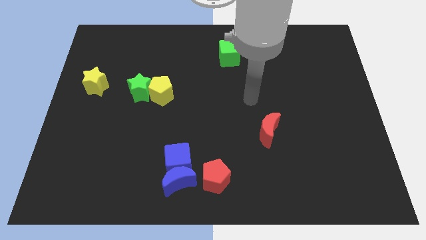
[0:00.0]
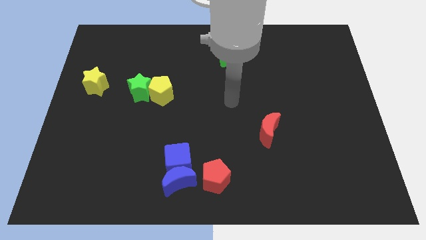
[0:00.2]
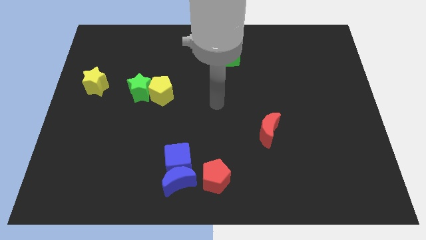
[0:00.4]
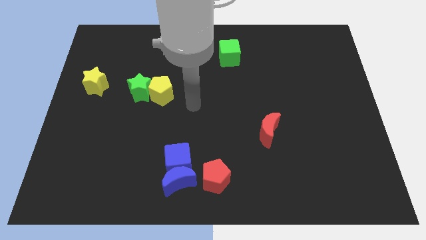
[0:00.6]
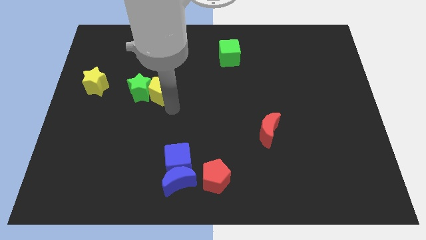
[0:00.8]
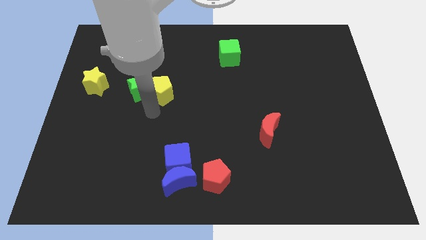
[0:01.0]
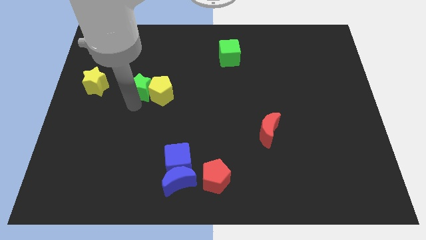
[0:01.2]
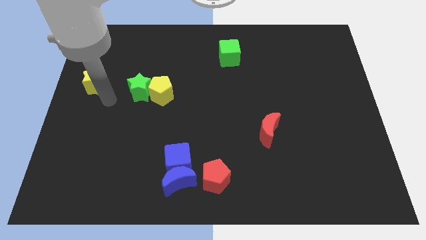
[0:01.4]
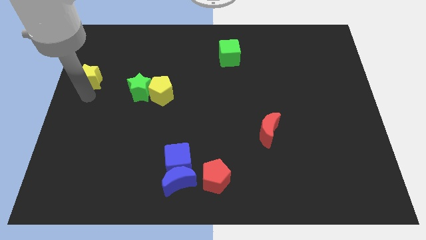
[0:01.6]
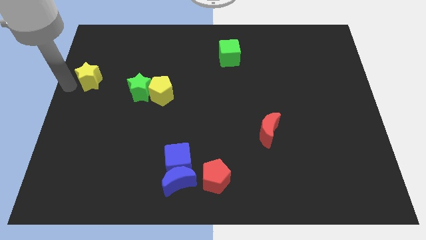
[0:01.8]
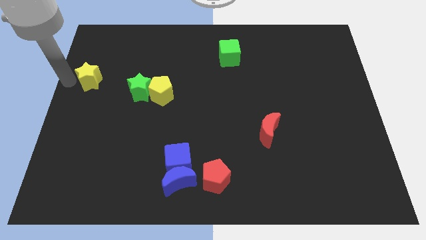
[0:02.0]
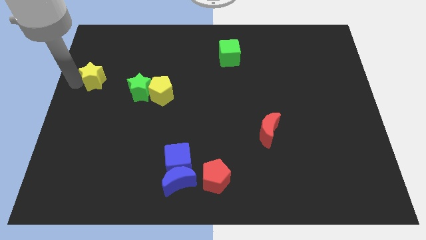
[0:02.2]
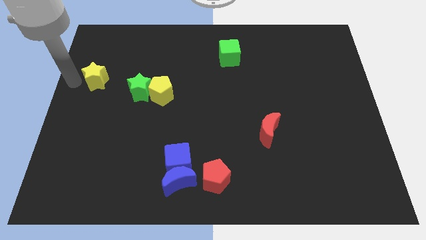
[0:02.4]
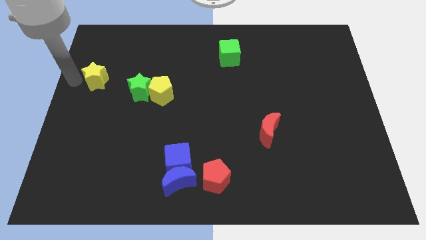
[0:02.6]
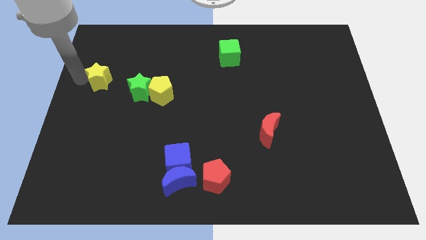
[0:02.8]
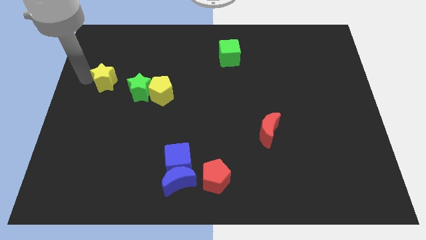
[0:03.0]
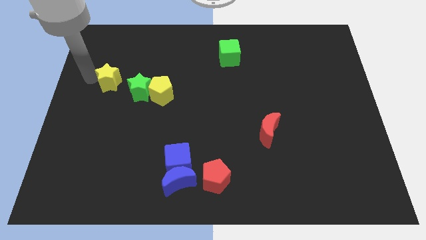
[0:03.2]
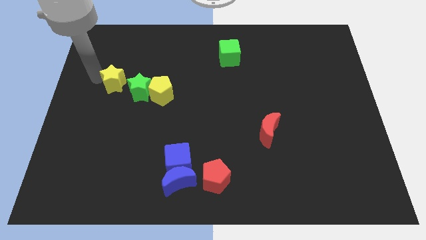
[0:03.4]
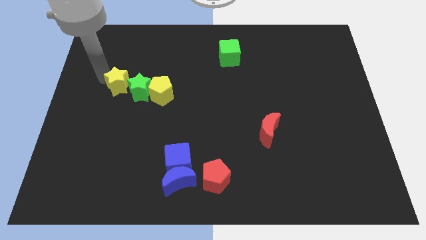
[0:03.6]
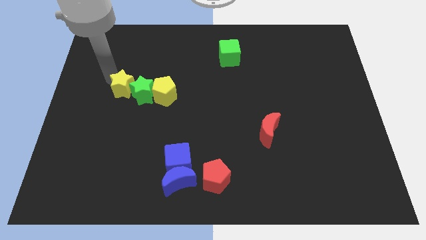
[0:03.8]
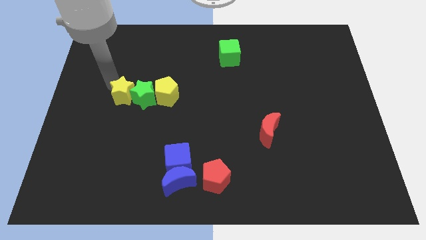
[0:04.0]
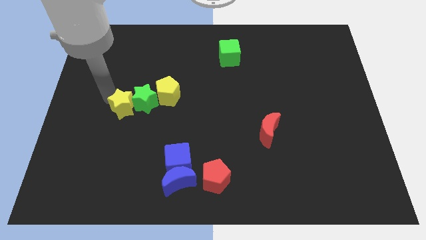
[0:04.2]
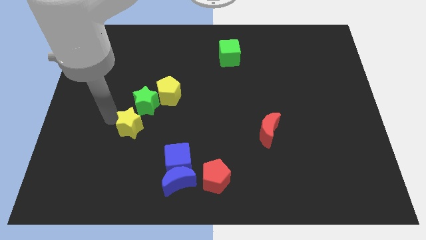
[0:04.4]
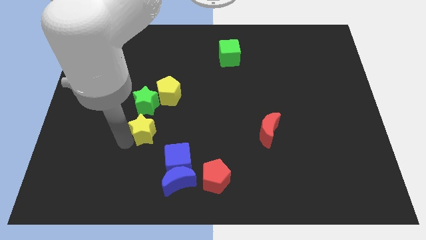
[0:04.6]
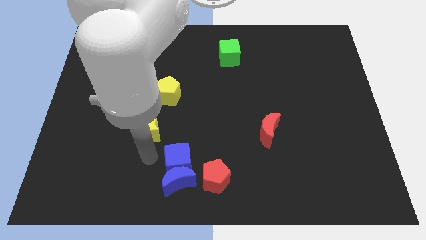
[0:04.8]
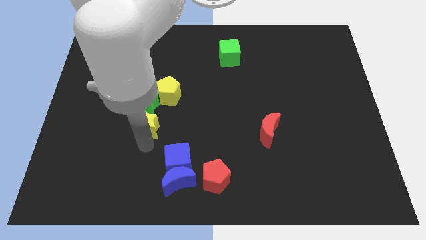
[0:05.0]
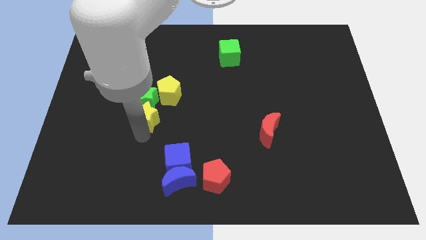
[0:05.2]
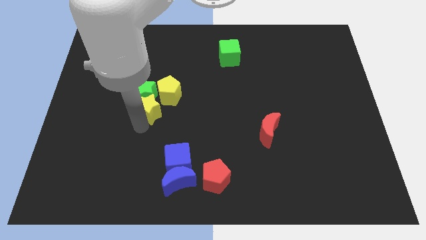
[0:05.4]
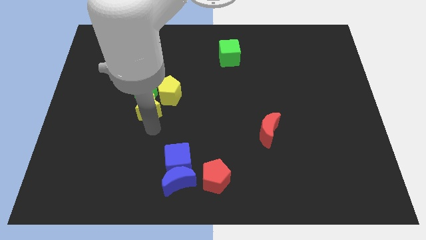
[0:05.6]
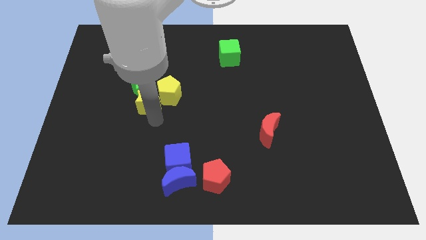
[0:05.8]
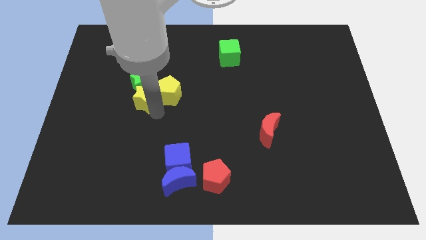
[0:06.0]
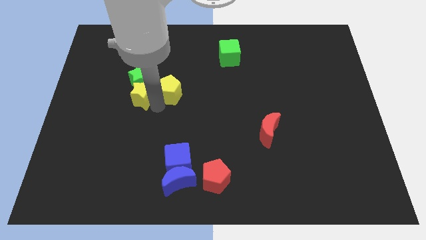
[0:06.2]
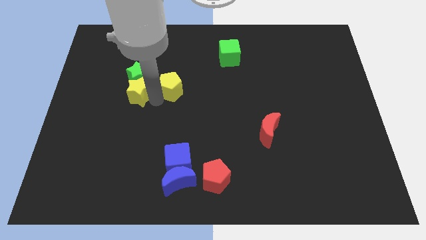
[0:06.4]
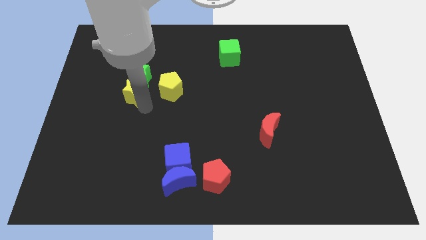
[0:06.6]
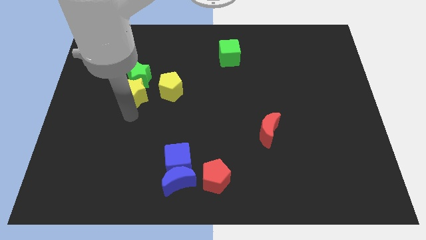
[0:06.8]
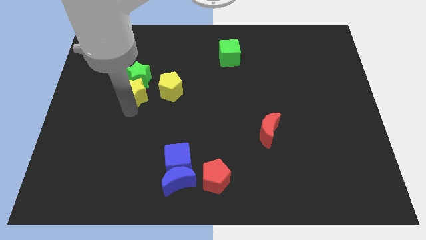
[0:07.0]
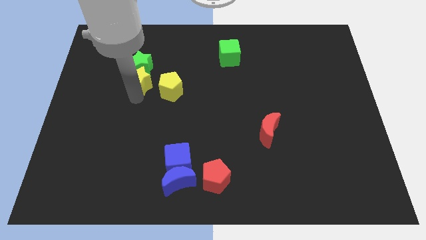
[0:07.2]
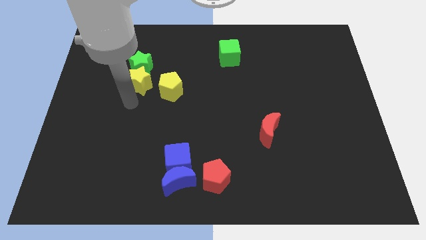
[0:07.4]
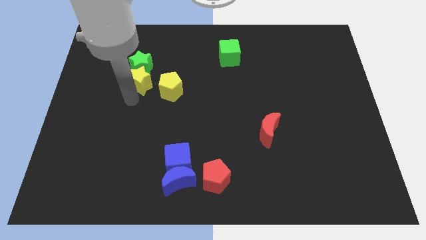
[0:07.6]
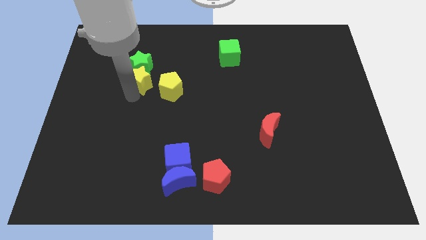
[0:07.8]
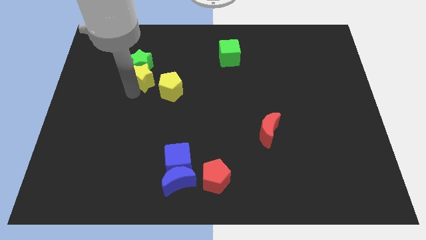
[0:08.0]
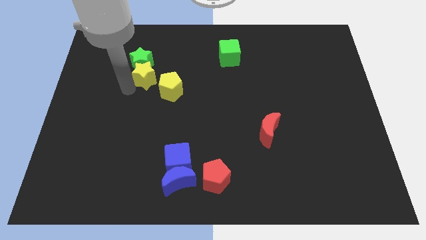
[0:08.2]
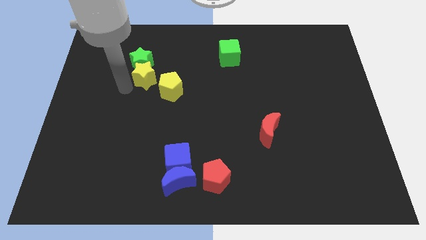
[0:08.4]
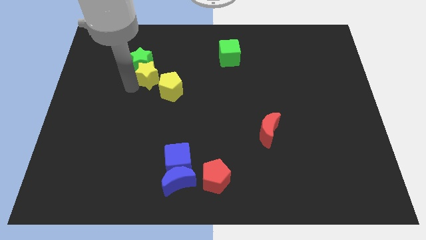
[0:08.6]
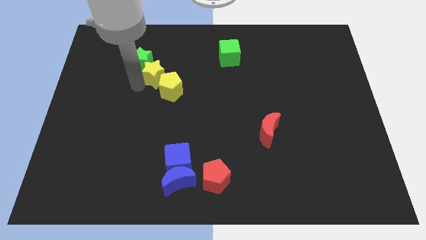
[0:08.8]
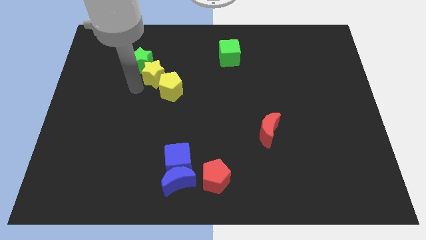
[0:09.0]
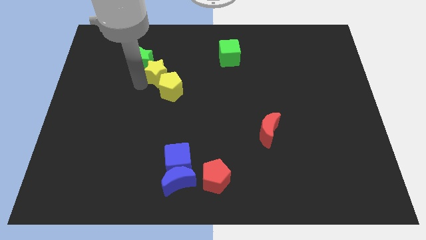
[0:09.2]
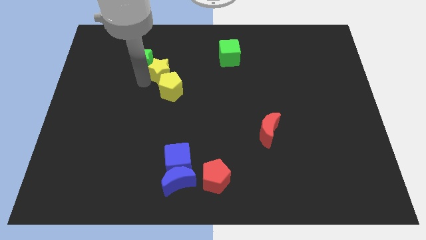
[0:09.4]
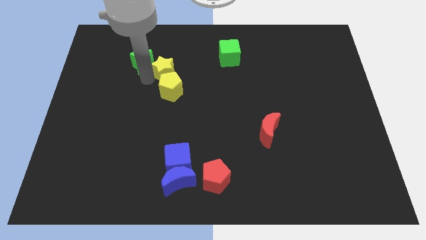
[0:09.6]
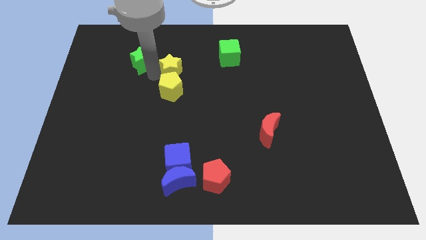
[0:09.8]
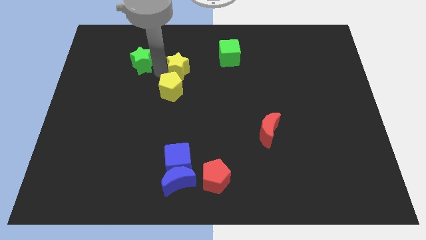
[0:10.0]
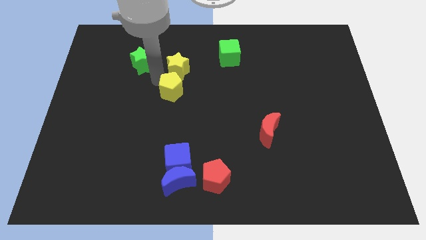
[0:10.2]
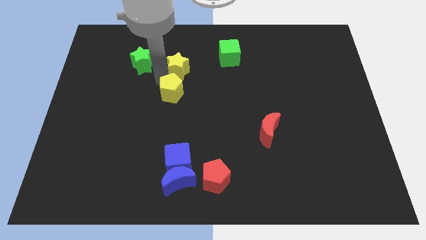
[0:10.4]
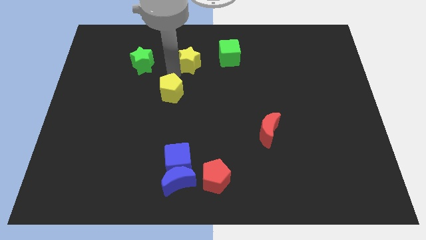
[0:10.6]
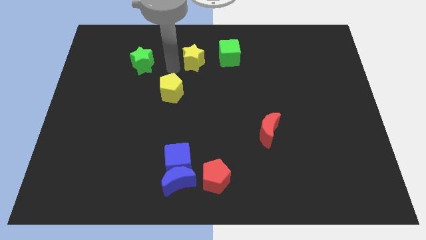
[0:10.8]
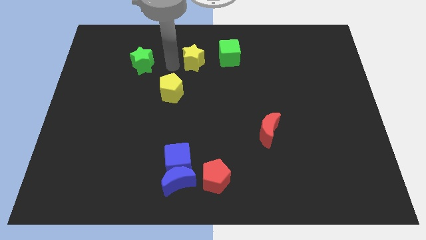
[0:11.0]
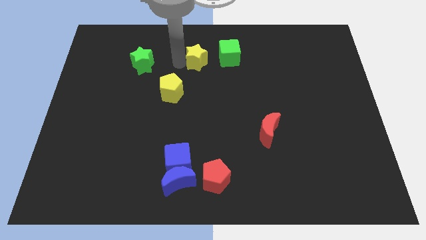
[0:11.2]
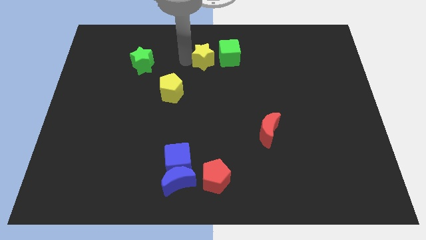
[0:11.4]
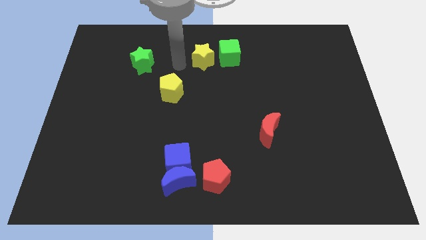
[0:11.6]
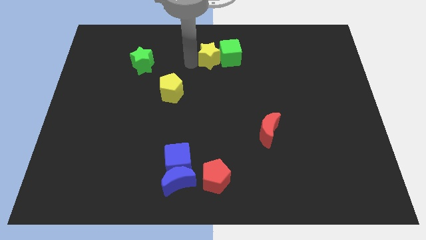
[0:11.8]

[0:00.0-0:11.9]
slide the yellow star close to the green cube

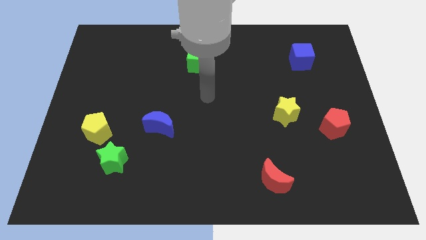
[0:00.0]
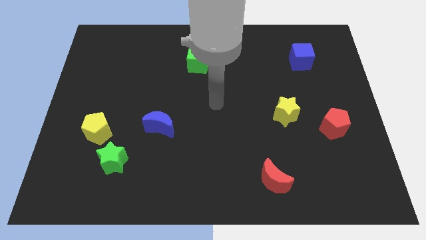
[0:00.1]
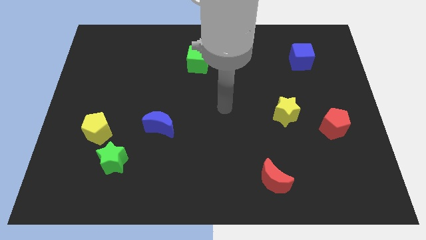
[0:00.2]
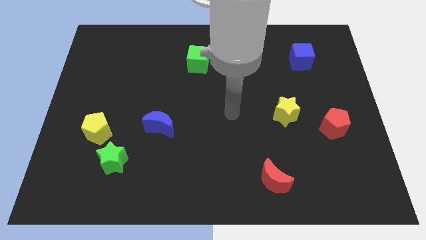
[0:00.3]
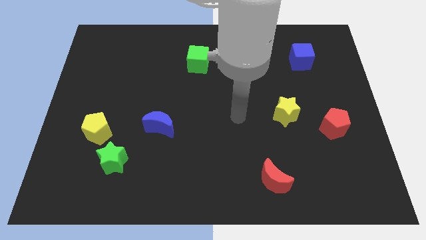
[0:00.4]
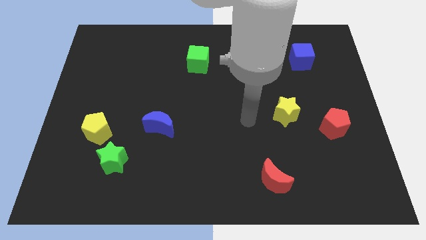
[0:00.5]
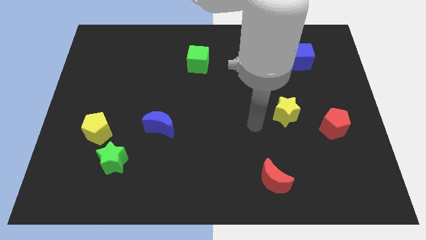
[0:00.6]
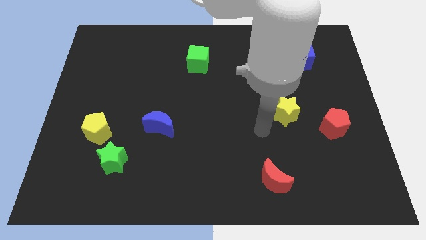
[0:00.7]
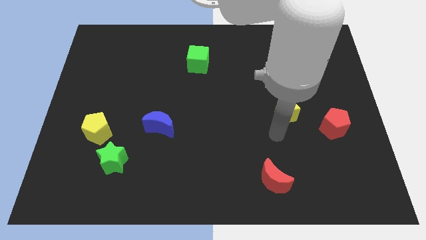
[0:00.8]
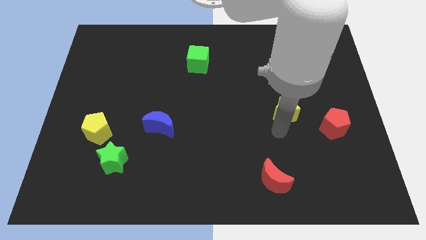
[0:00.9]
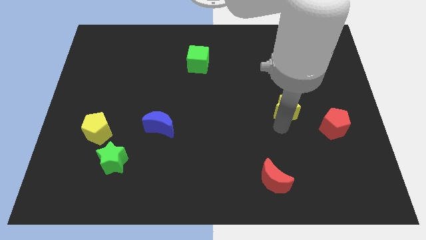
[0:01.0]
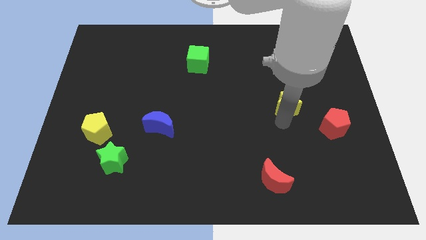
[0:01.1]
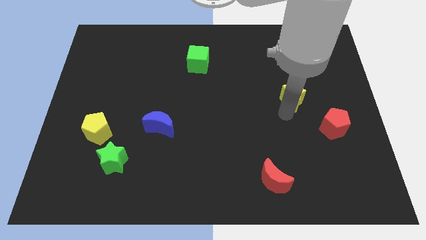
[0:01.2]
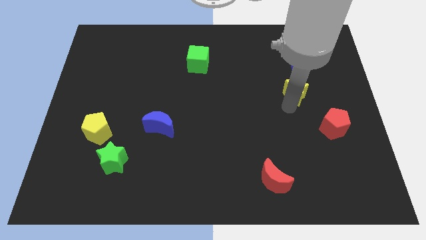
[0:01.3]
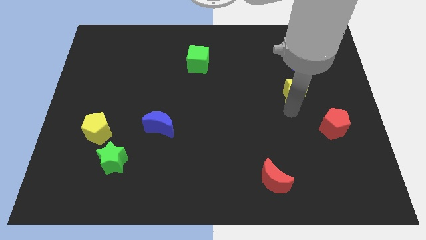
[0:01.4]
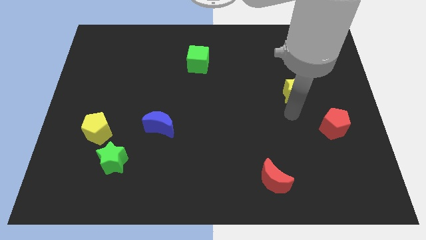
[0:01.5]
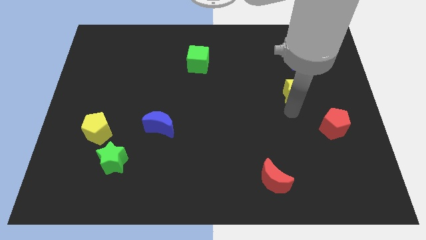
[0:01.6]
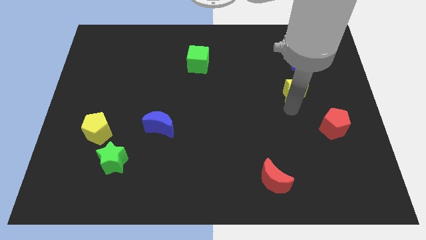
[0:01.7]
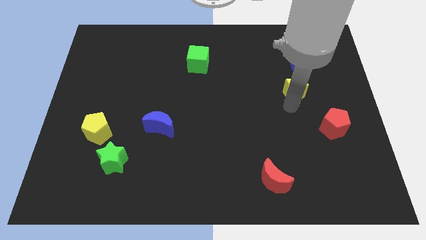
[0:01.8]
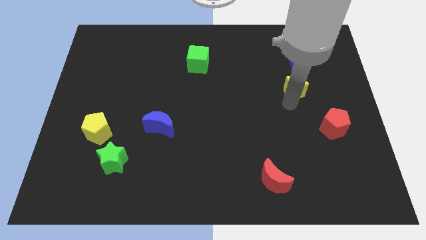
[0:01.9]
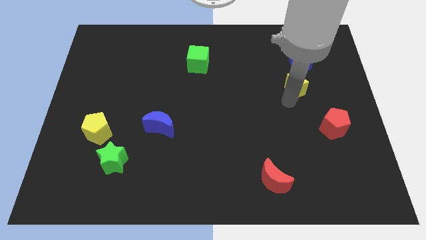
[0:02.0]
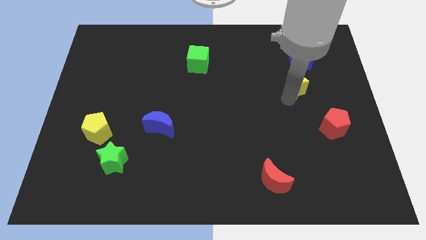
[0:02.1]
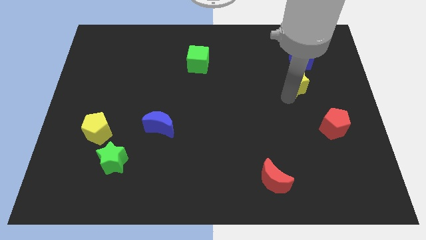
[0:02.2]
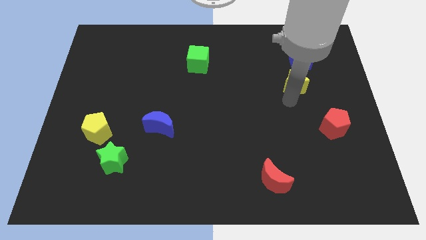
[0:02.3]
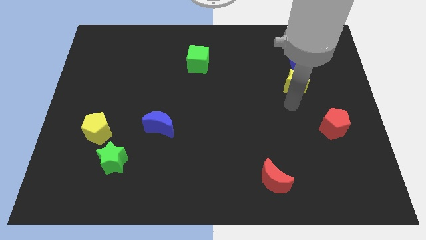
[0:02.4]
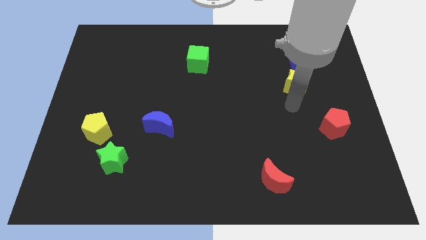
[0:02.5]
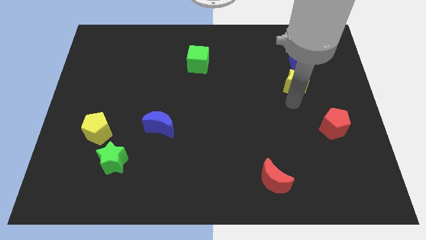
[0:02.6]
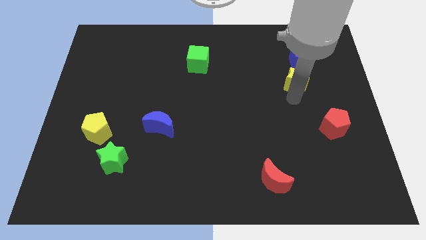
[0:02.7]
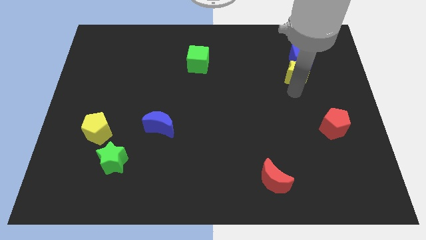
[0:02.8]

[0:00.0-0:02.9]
put the yellow star towards the blue cube
